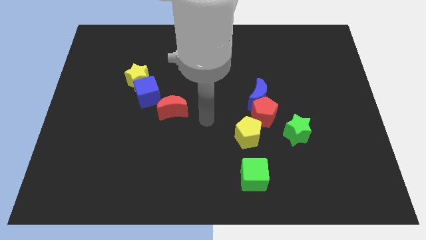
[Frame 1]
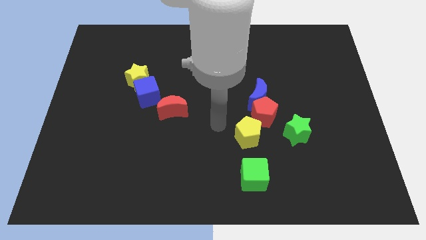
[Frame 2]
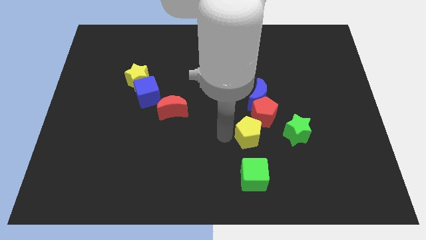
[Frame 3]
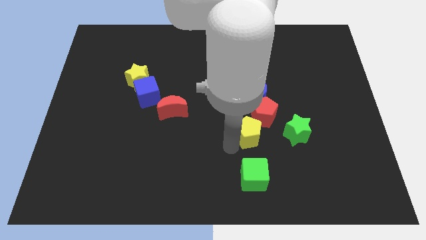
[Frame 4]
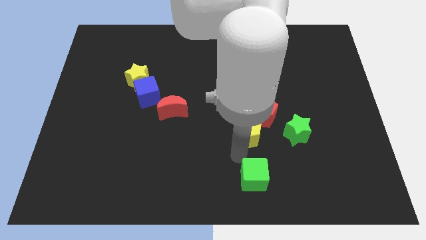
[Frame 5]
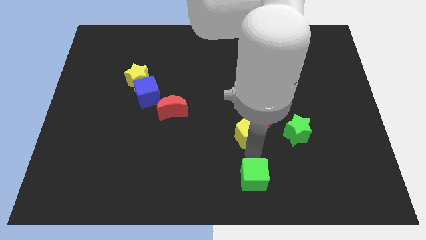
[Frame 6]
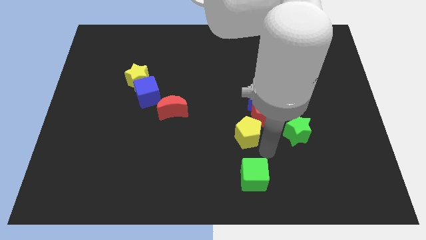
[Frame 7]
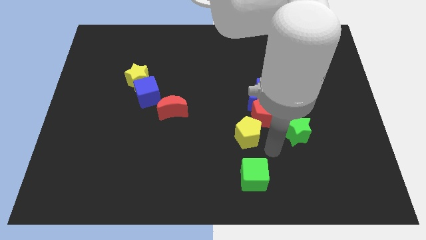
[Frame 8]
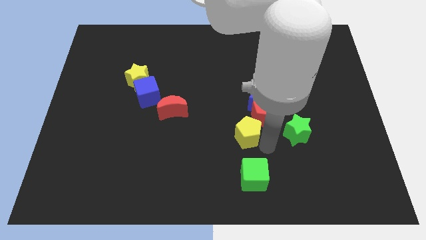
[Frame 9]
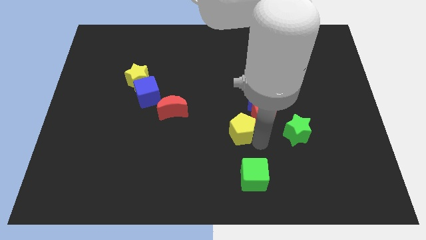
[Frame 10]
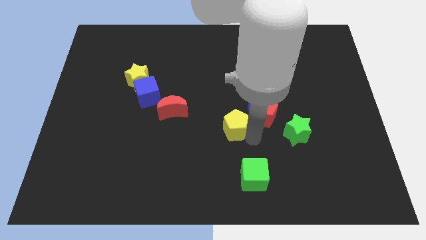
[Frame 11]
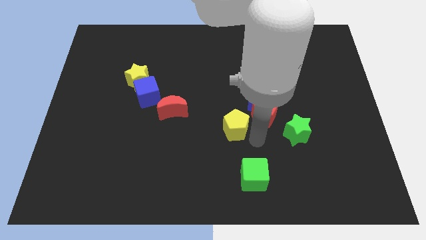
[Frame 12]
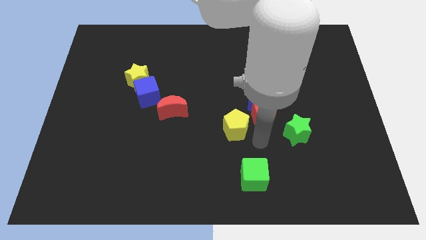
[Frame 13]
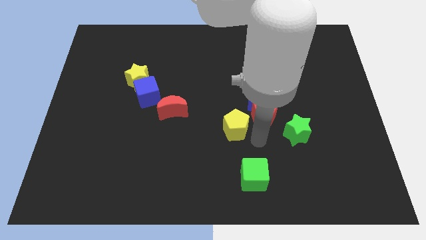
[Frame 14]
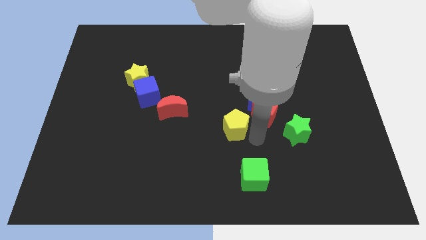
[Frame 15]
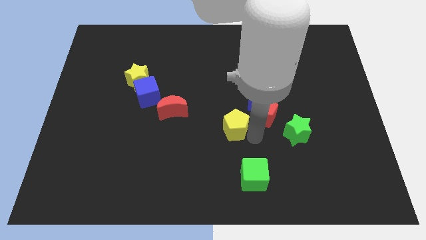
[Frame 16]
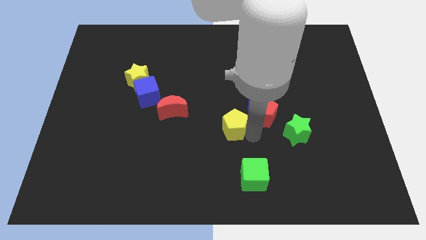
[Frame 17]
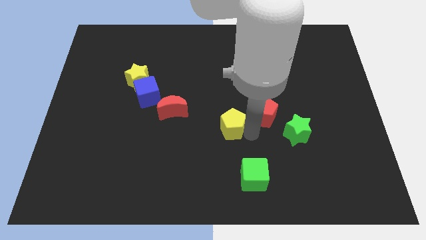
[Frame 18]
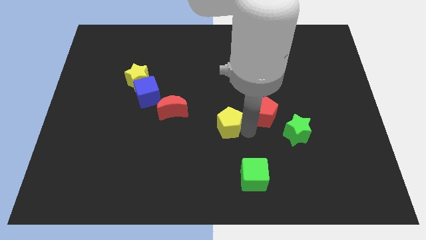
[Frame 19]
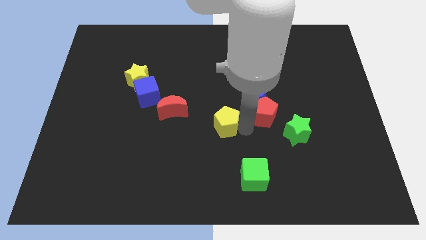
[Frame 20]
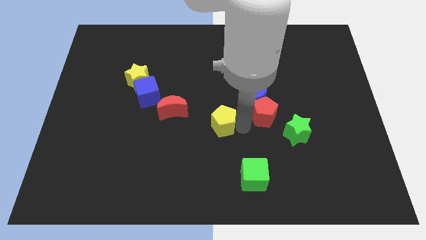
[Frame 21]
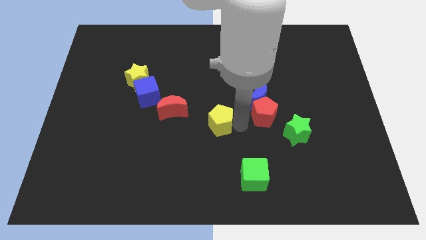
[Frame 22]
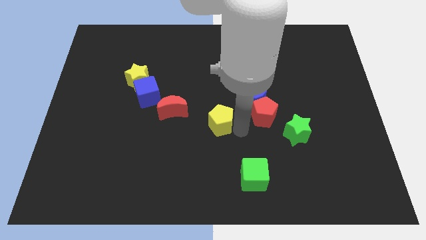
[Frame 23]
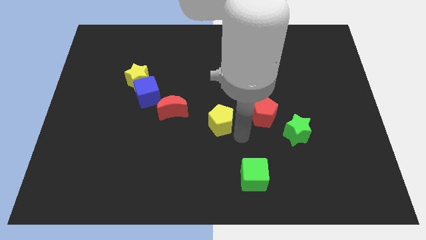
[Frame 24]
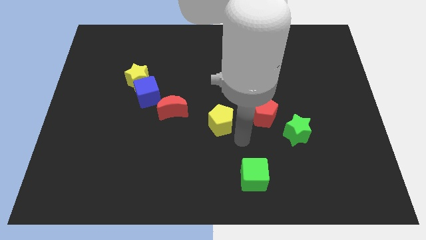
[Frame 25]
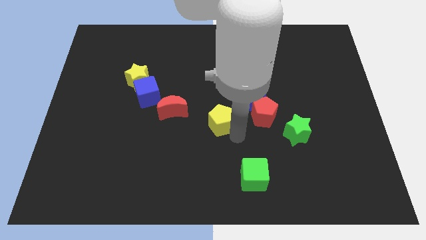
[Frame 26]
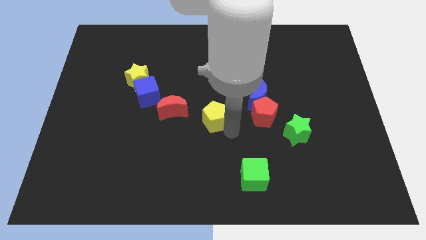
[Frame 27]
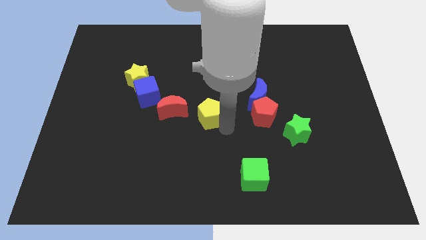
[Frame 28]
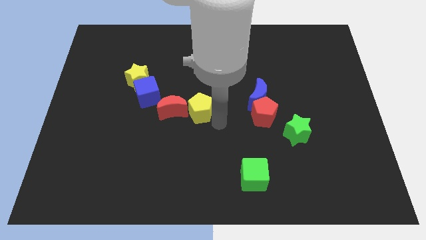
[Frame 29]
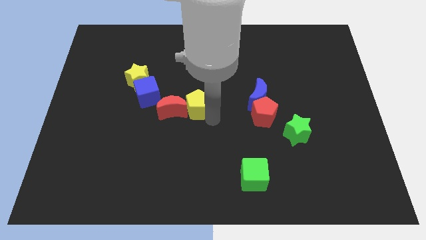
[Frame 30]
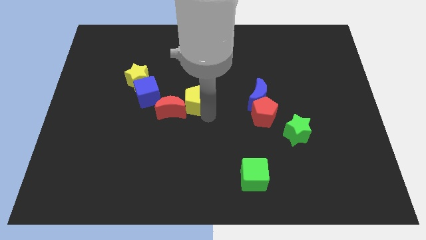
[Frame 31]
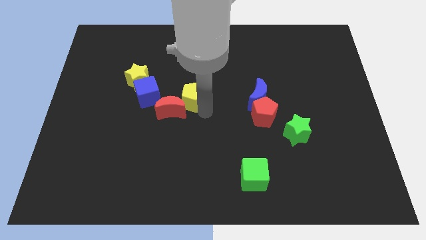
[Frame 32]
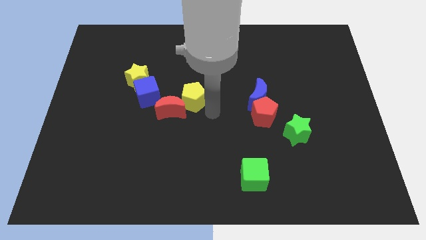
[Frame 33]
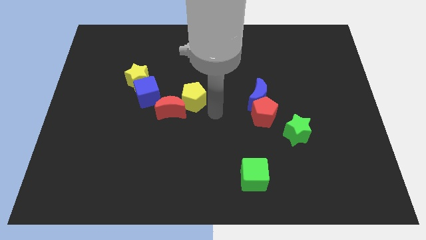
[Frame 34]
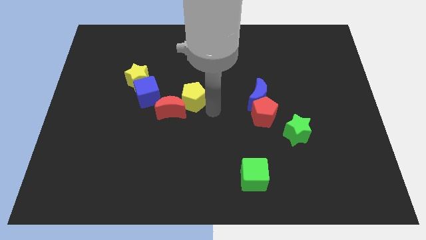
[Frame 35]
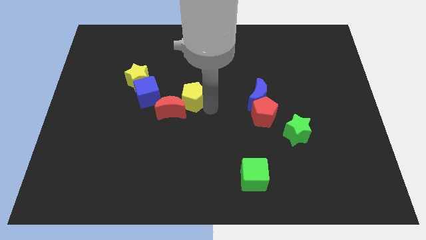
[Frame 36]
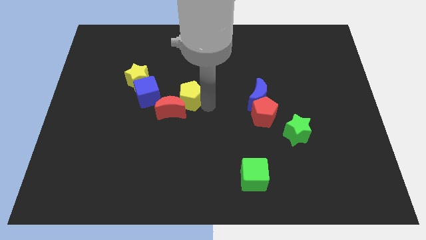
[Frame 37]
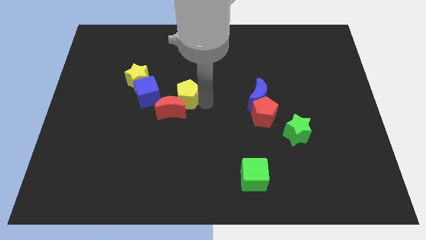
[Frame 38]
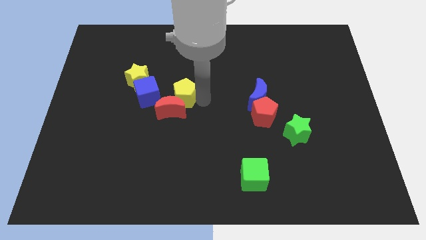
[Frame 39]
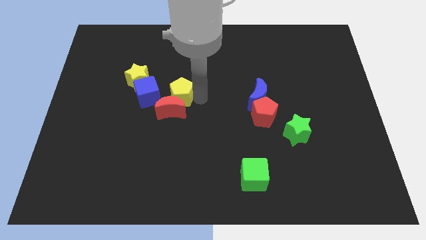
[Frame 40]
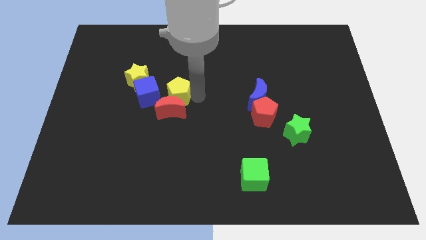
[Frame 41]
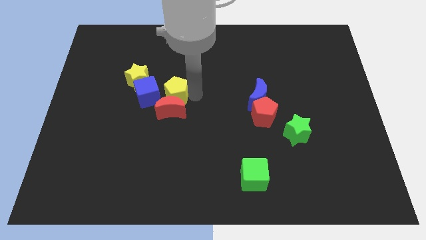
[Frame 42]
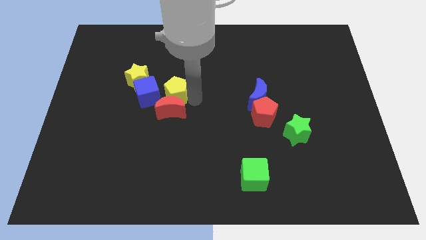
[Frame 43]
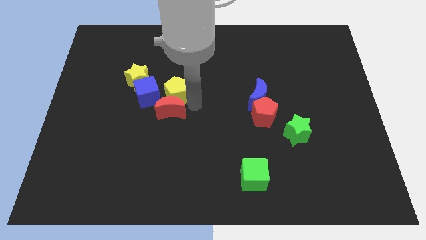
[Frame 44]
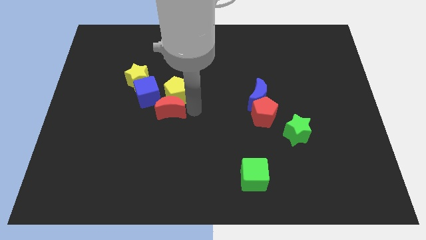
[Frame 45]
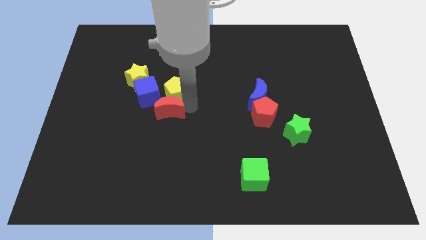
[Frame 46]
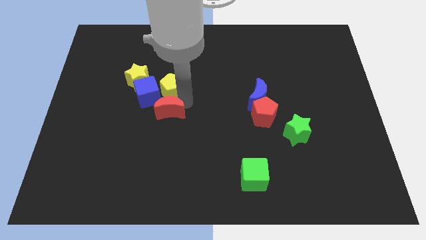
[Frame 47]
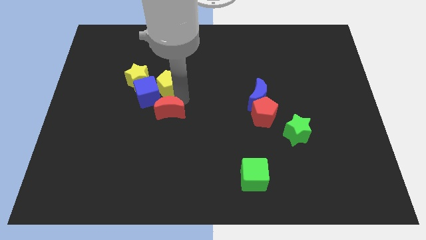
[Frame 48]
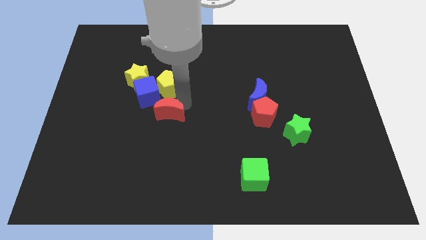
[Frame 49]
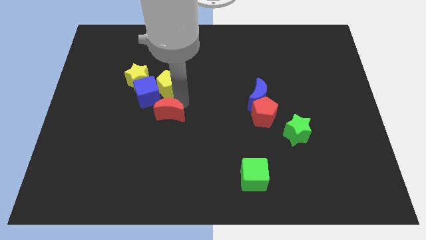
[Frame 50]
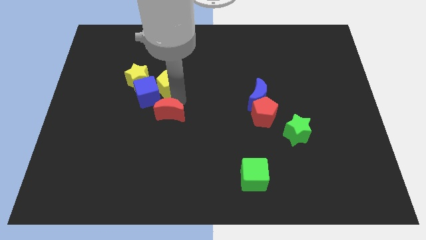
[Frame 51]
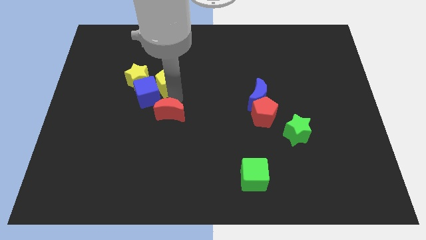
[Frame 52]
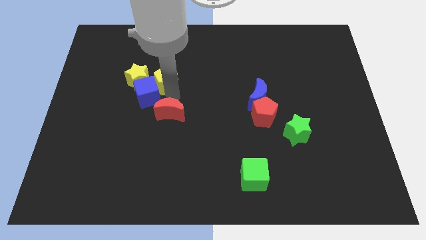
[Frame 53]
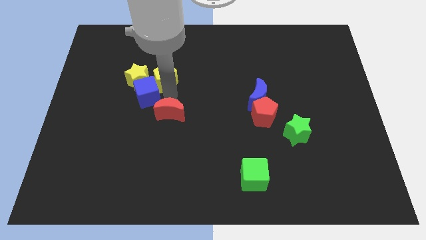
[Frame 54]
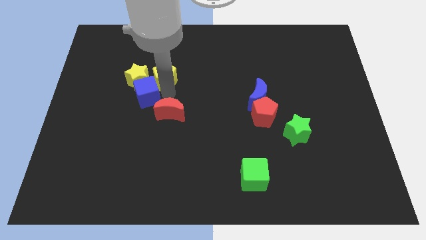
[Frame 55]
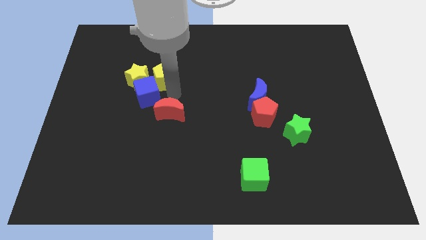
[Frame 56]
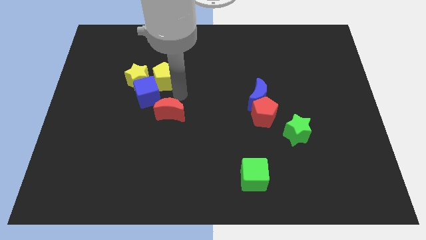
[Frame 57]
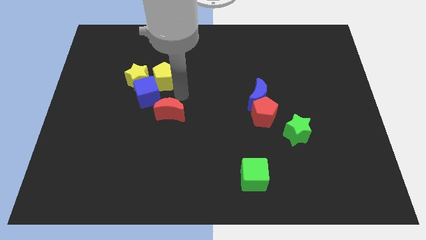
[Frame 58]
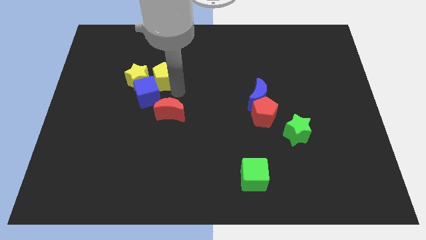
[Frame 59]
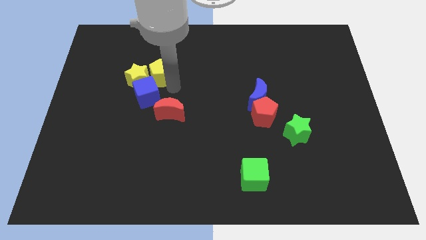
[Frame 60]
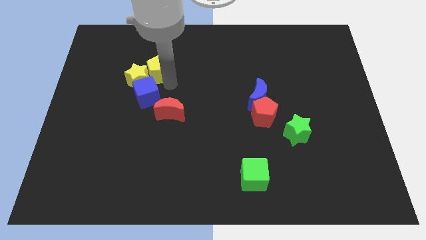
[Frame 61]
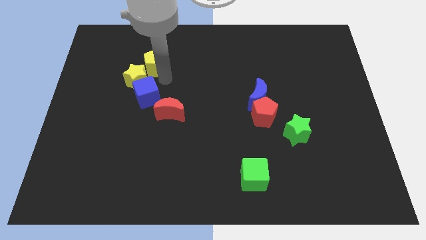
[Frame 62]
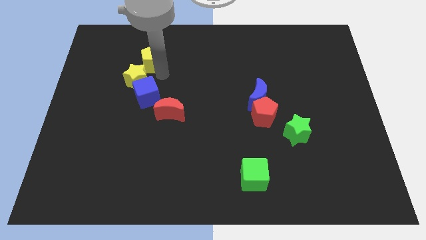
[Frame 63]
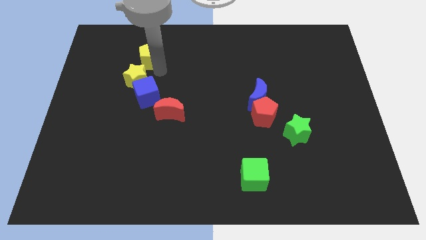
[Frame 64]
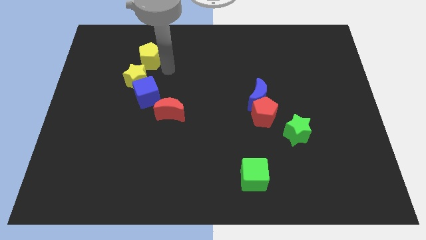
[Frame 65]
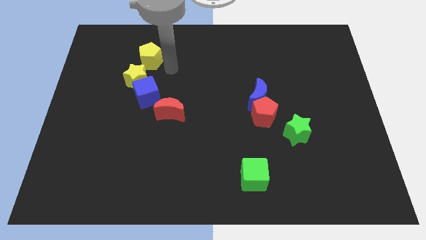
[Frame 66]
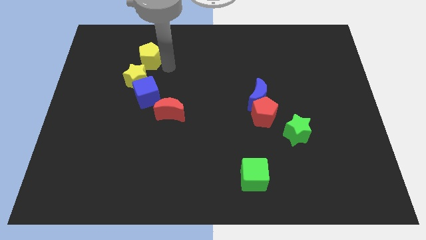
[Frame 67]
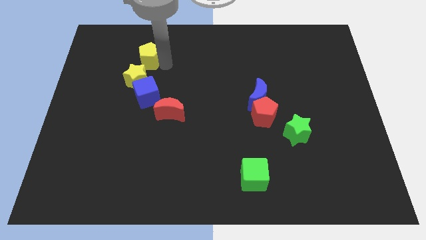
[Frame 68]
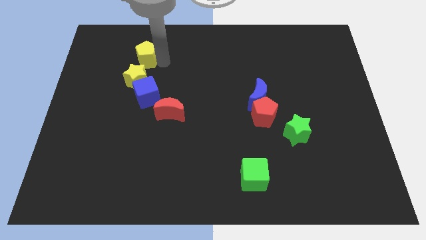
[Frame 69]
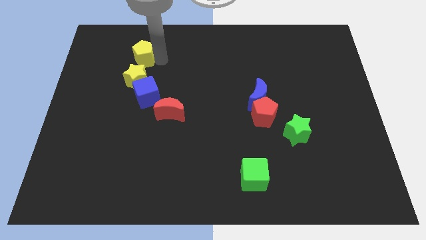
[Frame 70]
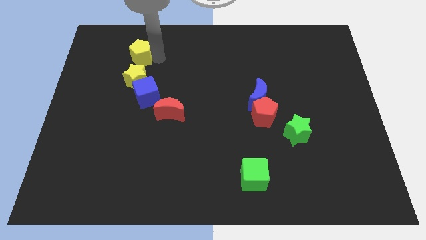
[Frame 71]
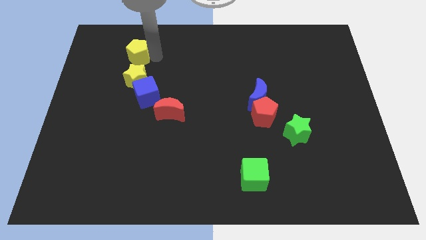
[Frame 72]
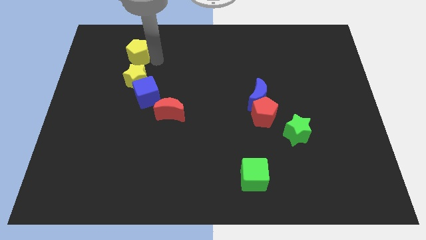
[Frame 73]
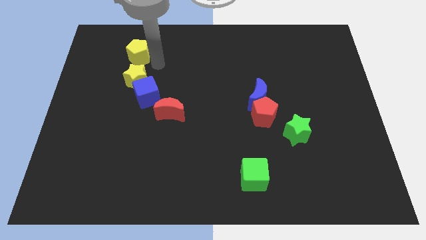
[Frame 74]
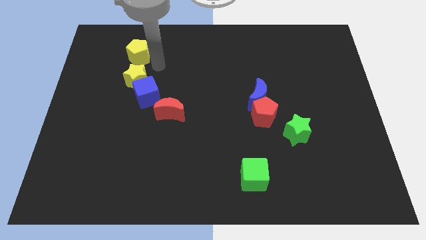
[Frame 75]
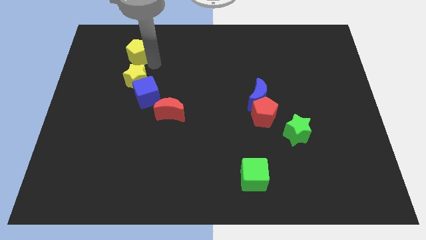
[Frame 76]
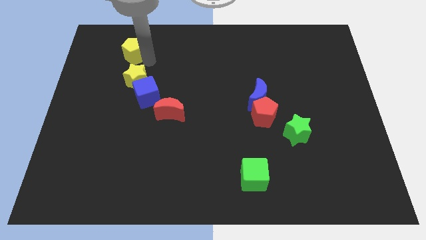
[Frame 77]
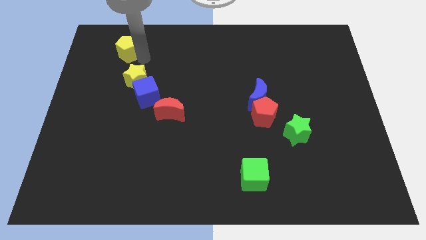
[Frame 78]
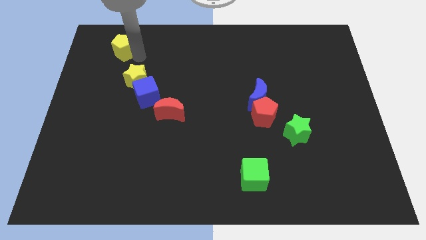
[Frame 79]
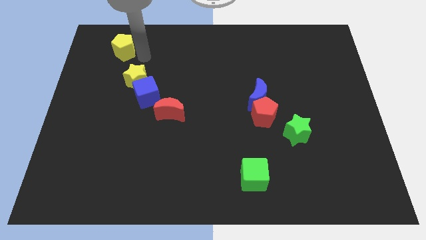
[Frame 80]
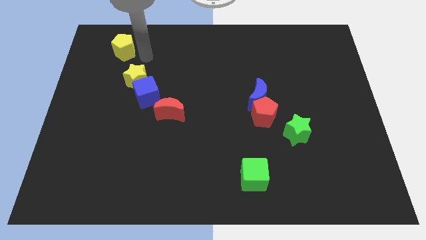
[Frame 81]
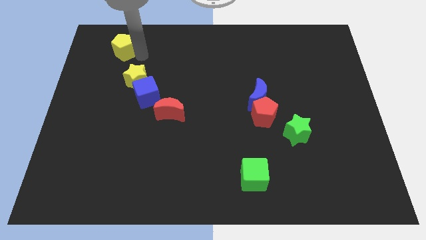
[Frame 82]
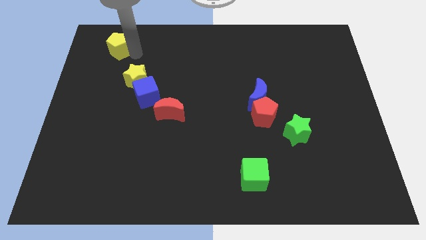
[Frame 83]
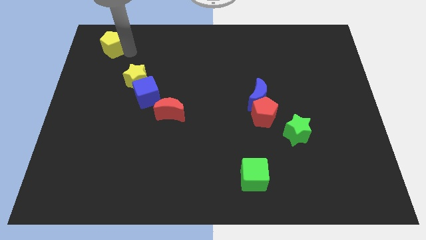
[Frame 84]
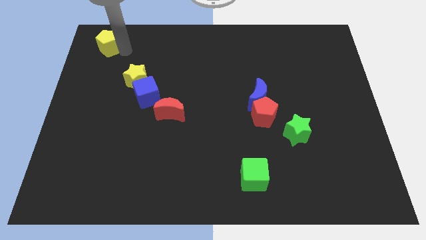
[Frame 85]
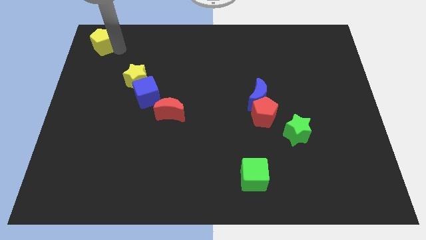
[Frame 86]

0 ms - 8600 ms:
push the yellow pentagon to the top left
